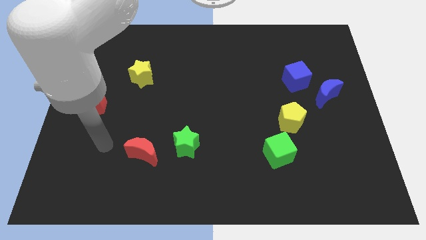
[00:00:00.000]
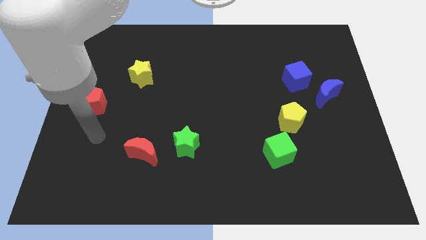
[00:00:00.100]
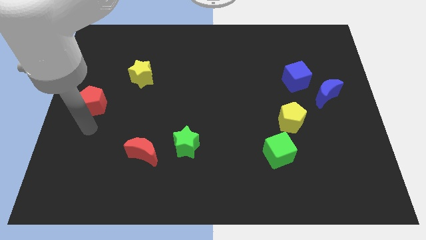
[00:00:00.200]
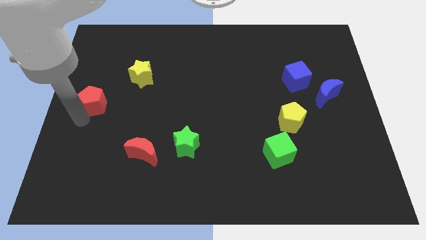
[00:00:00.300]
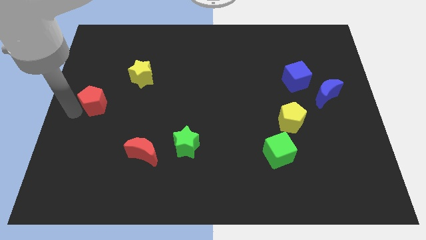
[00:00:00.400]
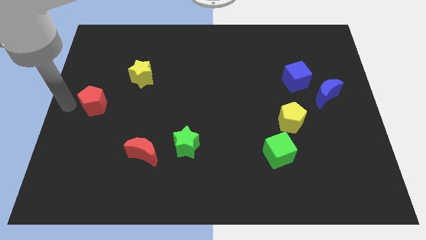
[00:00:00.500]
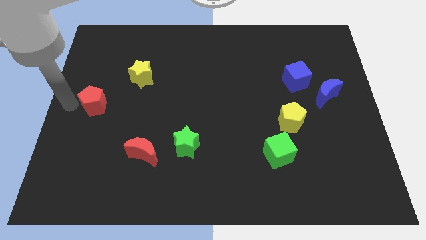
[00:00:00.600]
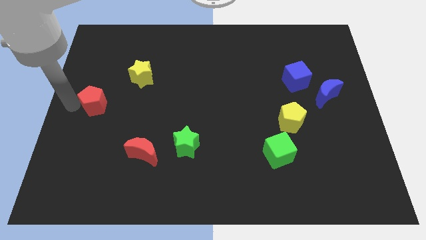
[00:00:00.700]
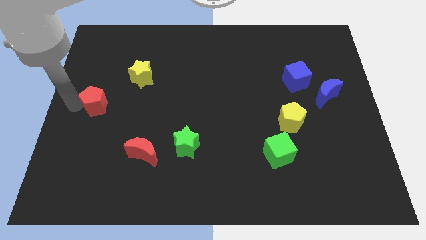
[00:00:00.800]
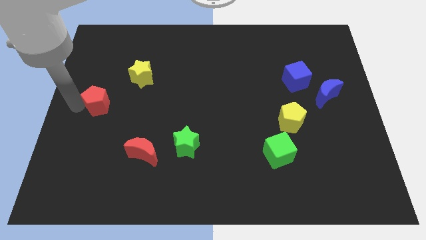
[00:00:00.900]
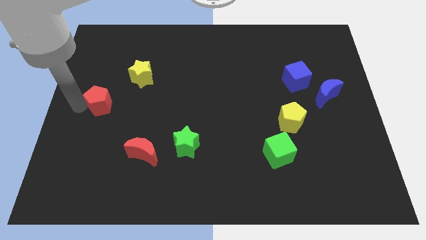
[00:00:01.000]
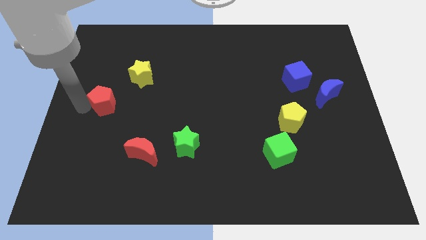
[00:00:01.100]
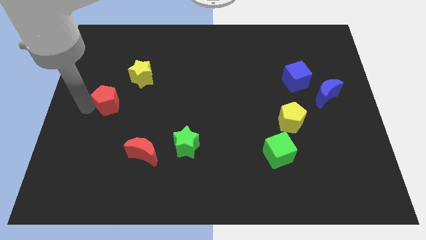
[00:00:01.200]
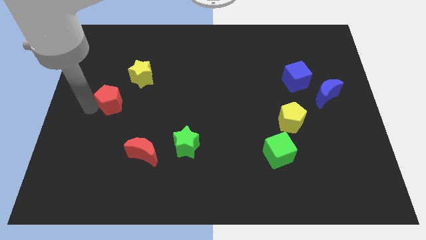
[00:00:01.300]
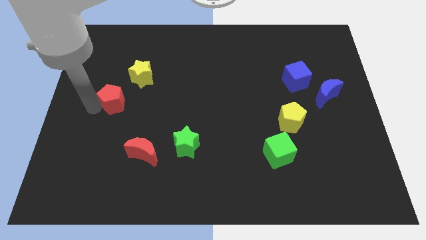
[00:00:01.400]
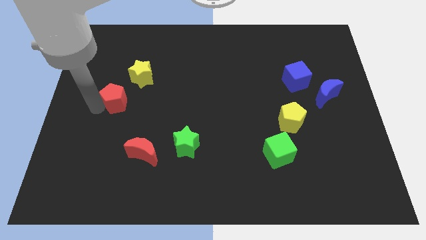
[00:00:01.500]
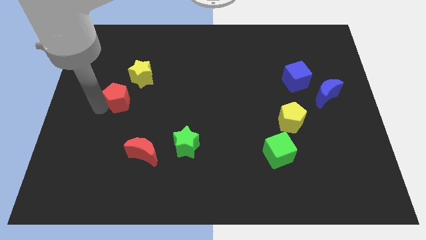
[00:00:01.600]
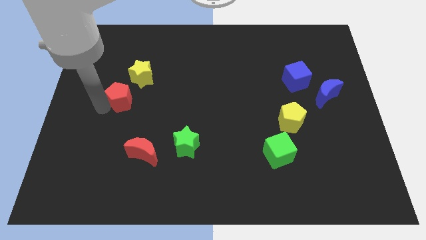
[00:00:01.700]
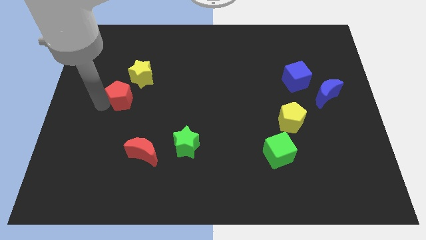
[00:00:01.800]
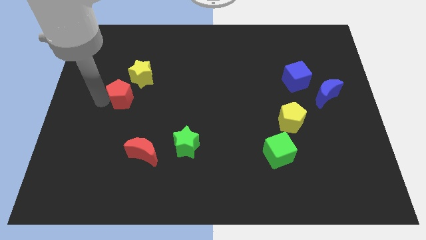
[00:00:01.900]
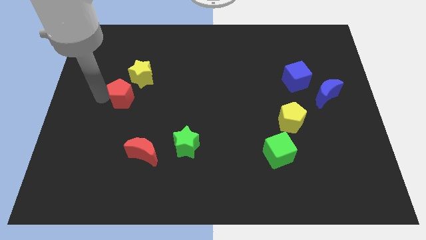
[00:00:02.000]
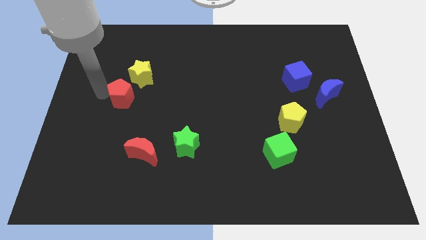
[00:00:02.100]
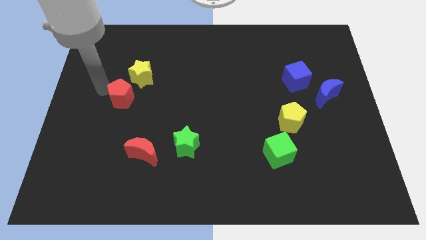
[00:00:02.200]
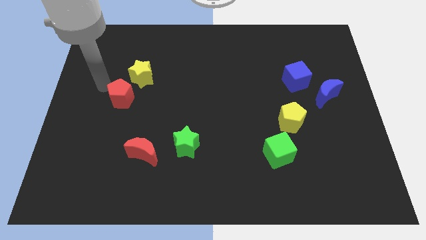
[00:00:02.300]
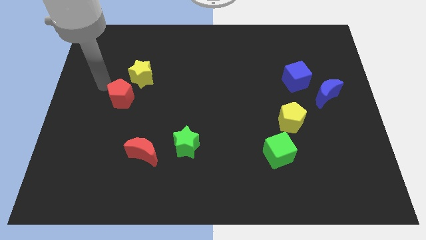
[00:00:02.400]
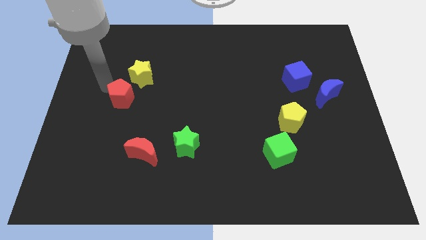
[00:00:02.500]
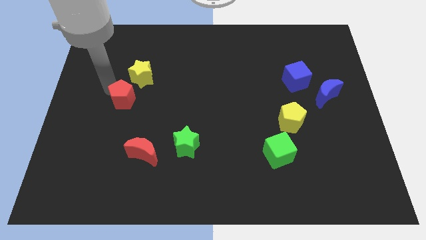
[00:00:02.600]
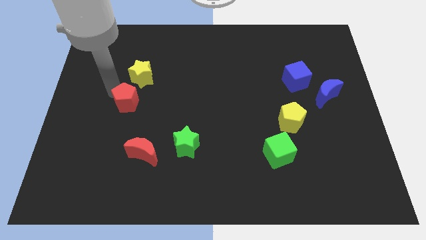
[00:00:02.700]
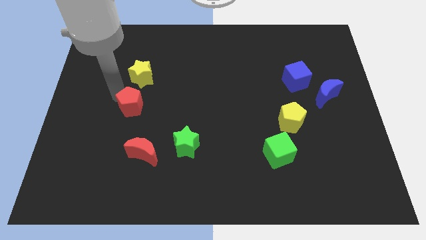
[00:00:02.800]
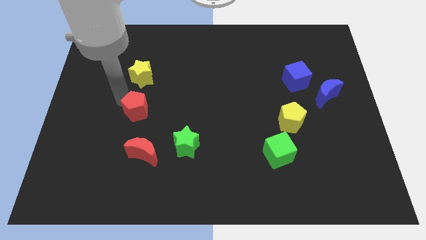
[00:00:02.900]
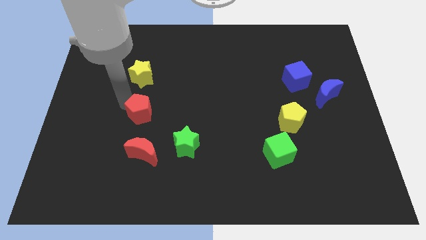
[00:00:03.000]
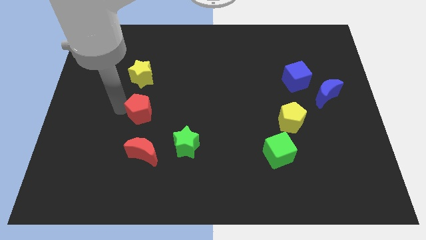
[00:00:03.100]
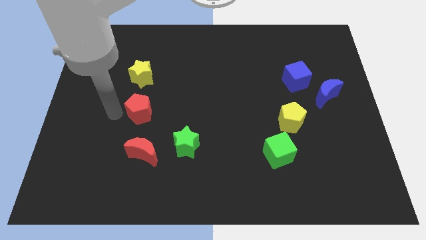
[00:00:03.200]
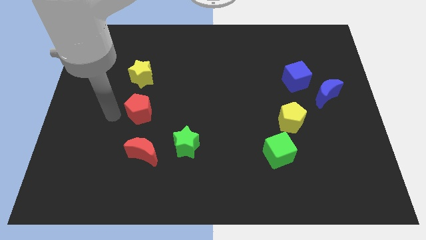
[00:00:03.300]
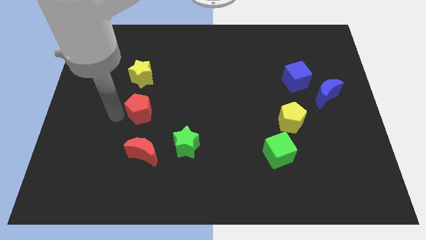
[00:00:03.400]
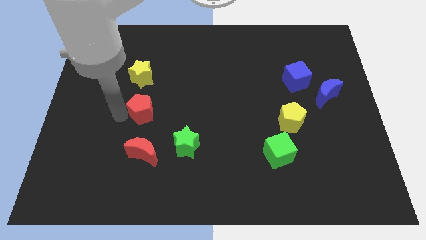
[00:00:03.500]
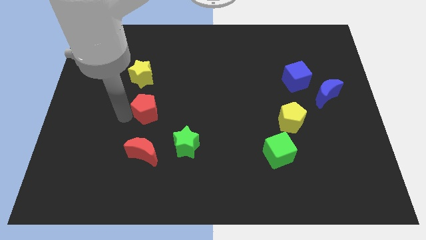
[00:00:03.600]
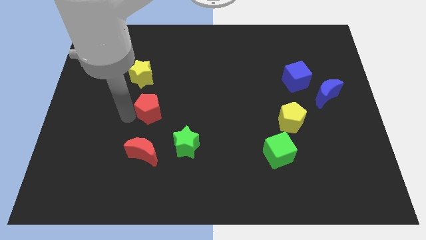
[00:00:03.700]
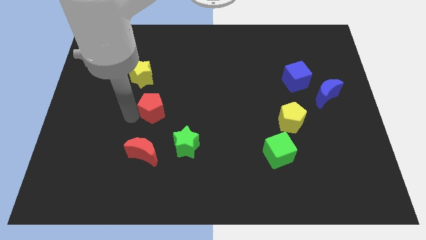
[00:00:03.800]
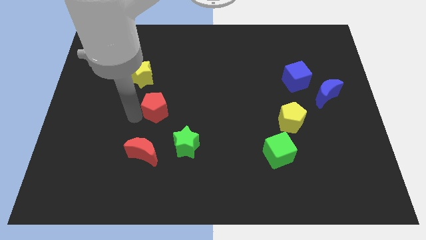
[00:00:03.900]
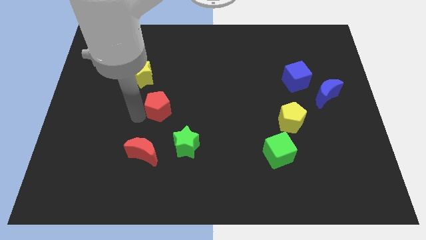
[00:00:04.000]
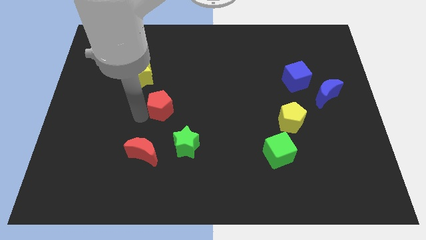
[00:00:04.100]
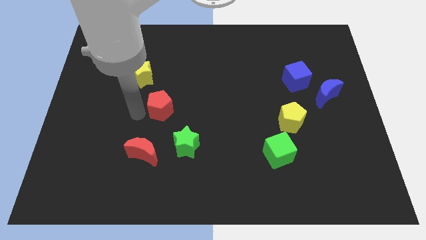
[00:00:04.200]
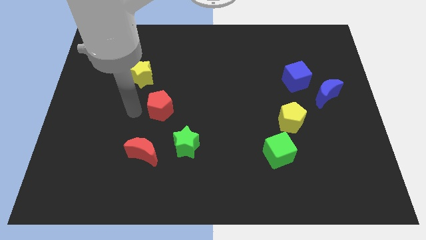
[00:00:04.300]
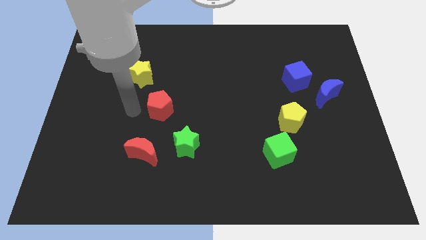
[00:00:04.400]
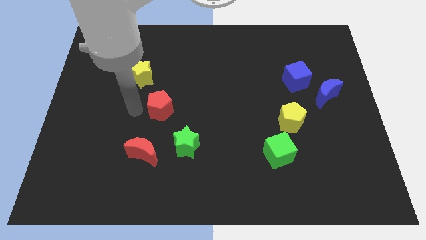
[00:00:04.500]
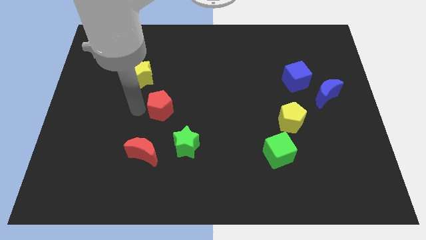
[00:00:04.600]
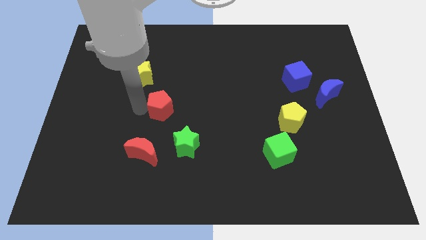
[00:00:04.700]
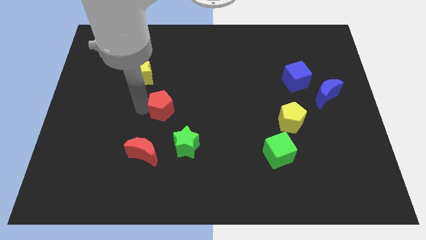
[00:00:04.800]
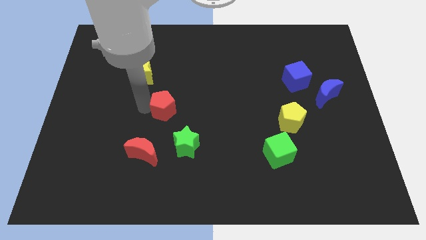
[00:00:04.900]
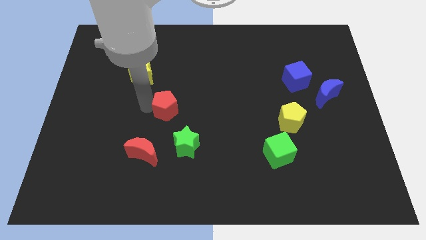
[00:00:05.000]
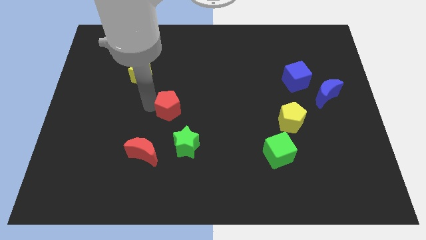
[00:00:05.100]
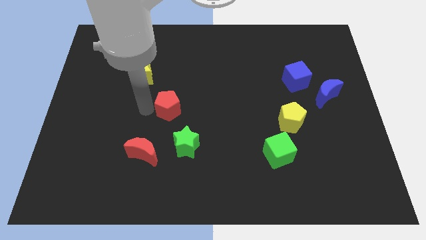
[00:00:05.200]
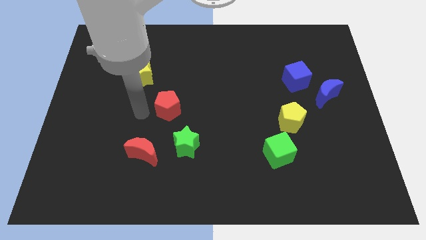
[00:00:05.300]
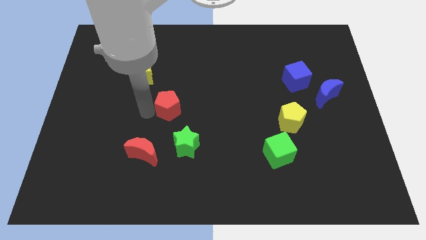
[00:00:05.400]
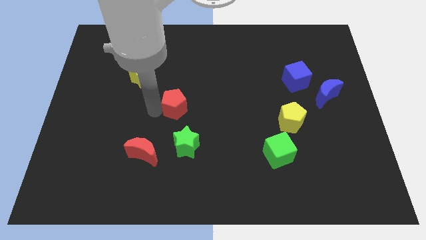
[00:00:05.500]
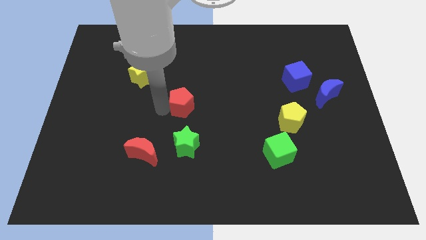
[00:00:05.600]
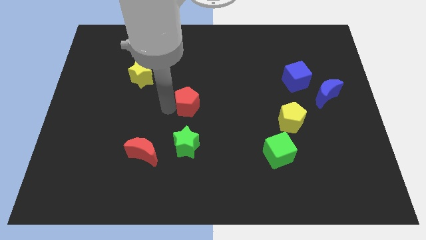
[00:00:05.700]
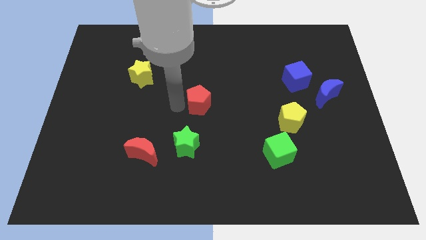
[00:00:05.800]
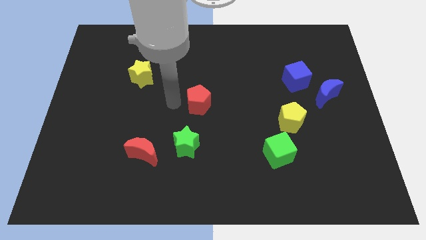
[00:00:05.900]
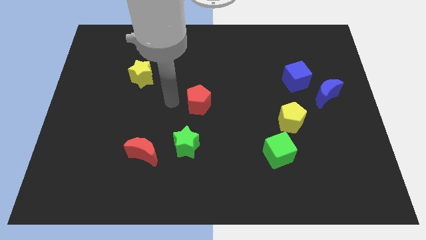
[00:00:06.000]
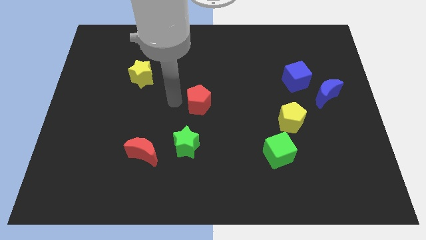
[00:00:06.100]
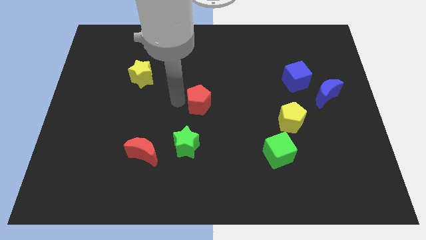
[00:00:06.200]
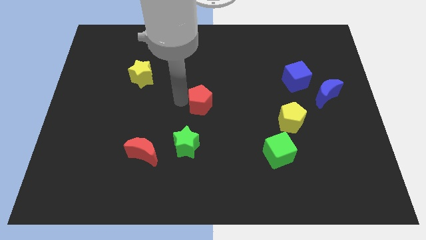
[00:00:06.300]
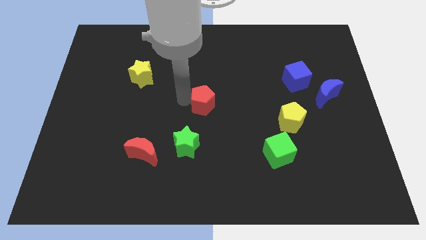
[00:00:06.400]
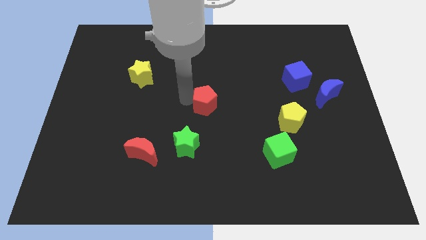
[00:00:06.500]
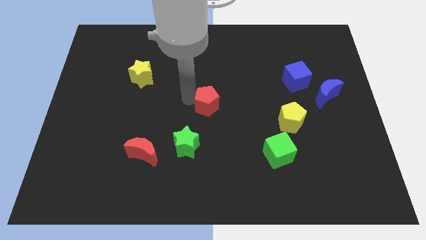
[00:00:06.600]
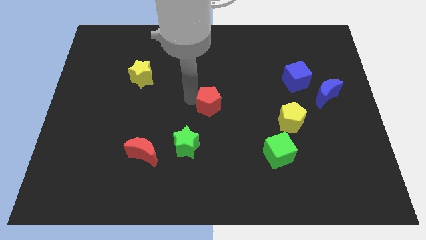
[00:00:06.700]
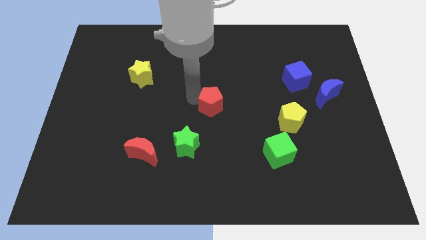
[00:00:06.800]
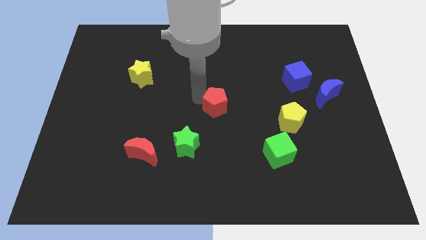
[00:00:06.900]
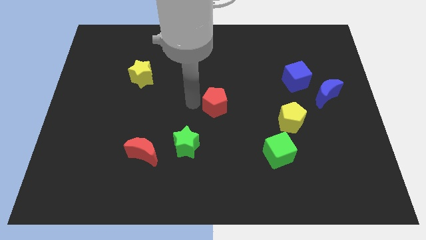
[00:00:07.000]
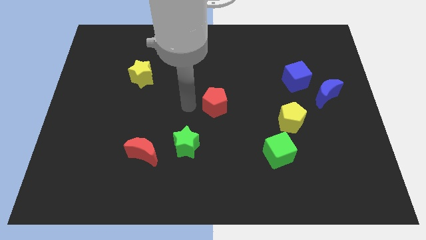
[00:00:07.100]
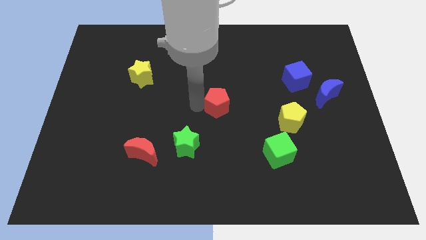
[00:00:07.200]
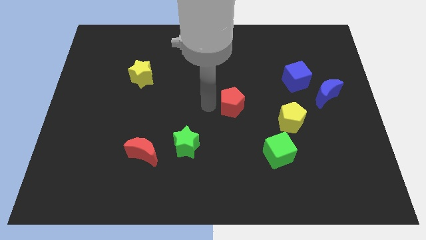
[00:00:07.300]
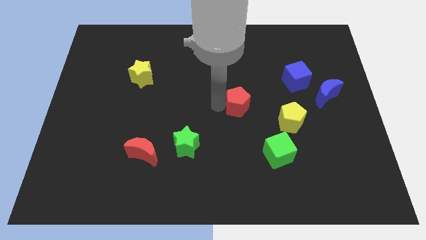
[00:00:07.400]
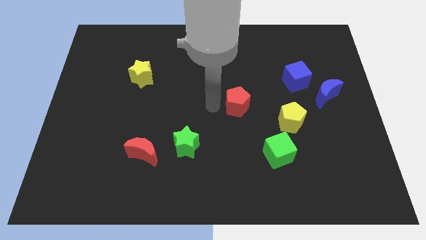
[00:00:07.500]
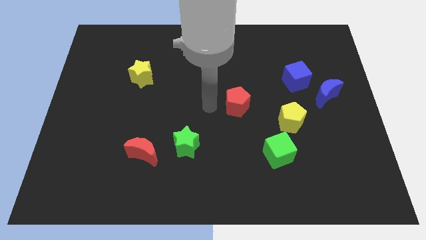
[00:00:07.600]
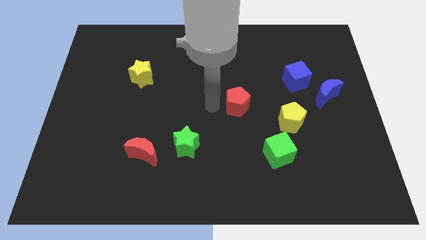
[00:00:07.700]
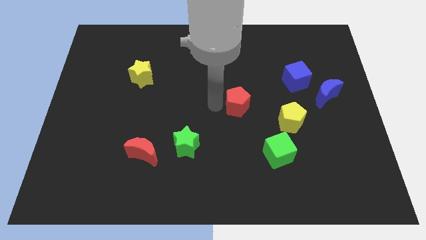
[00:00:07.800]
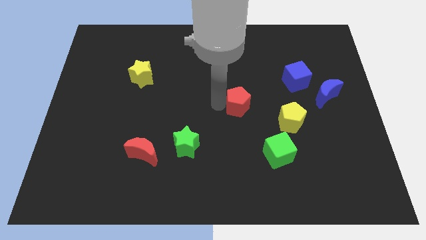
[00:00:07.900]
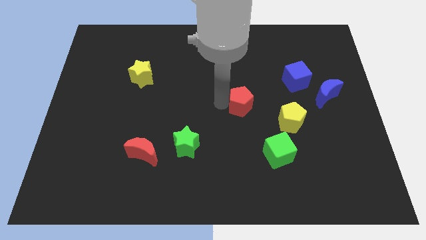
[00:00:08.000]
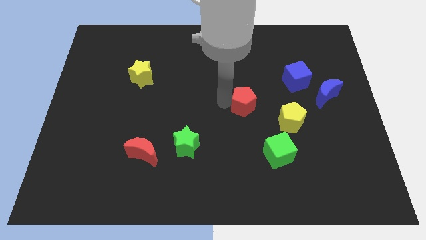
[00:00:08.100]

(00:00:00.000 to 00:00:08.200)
push the red pentagon diagonally up and to the left of the yellow pentagon
